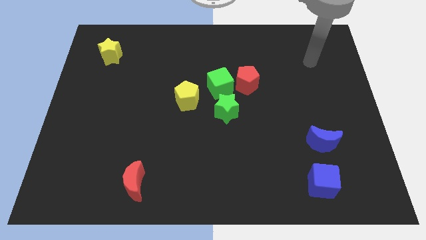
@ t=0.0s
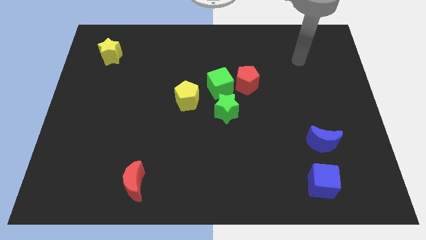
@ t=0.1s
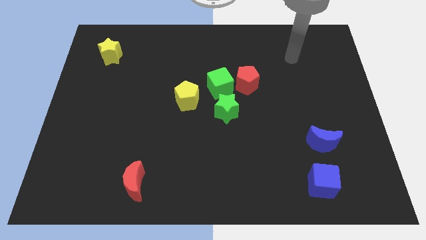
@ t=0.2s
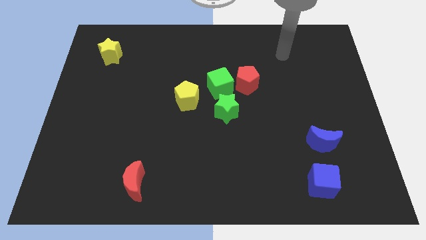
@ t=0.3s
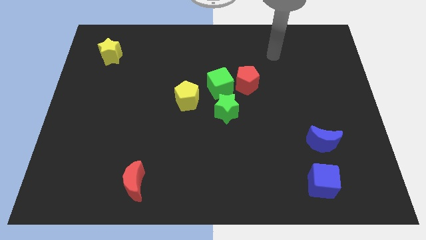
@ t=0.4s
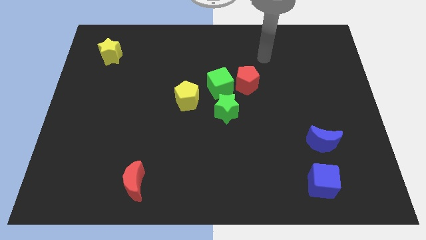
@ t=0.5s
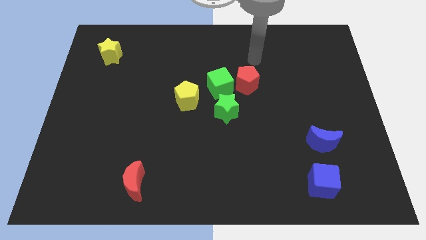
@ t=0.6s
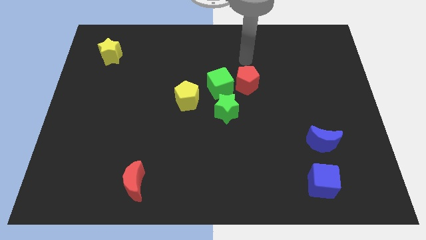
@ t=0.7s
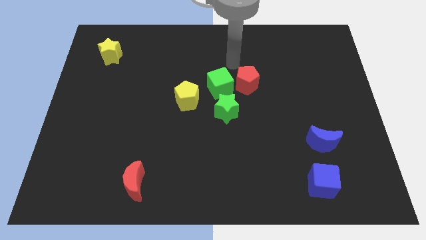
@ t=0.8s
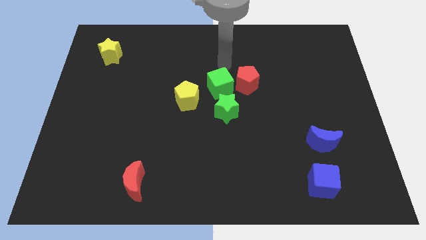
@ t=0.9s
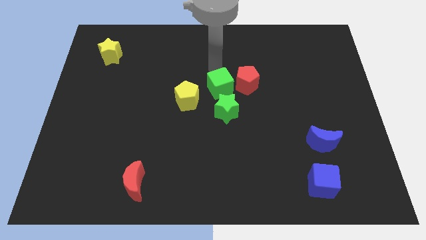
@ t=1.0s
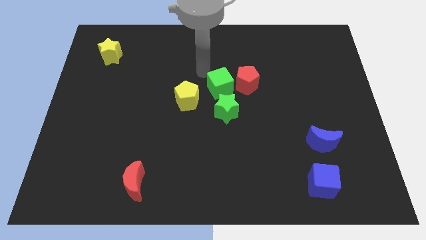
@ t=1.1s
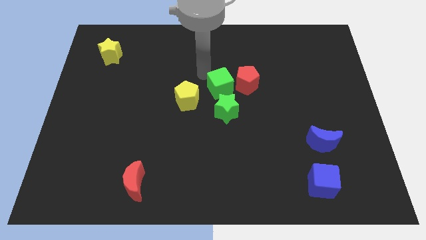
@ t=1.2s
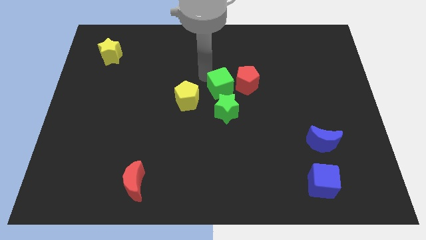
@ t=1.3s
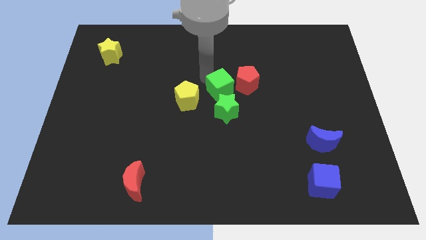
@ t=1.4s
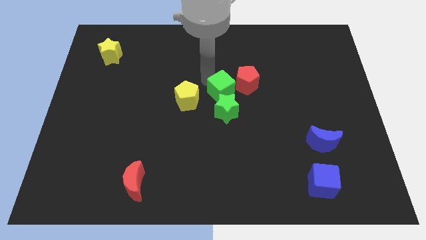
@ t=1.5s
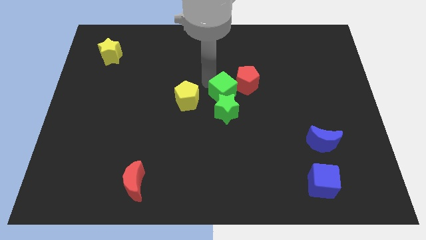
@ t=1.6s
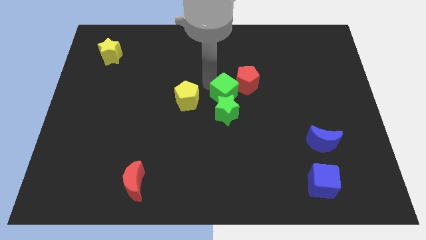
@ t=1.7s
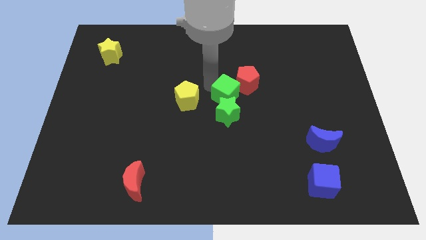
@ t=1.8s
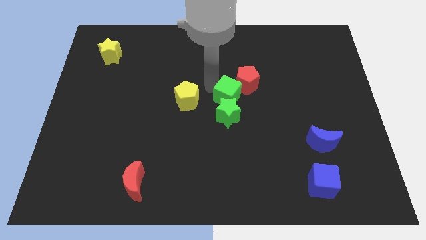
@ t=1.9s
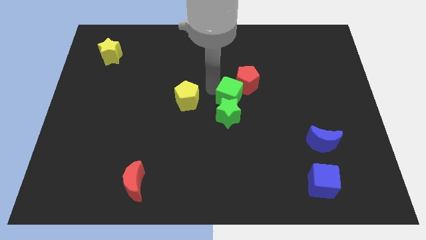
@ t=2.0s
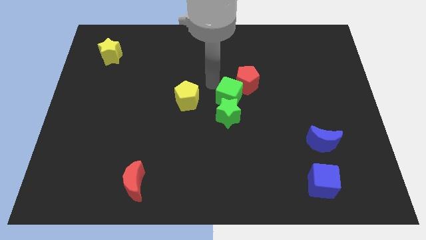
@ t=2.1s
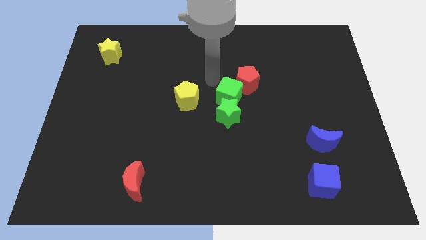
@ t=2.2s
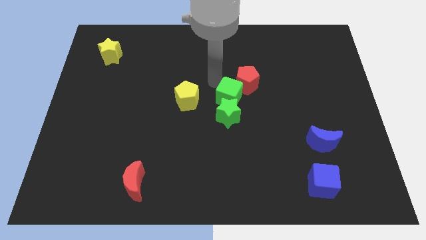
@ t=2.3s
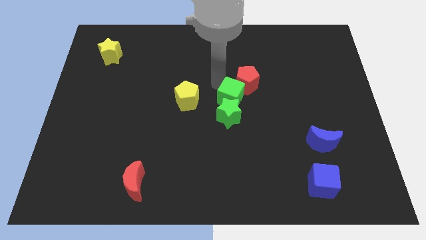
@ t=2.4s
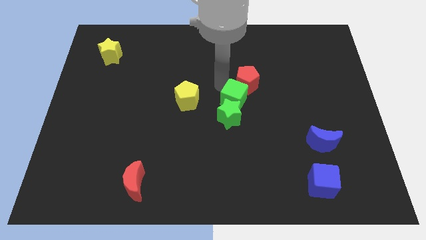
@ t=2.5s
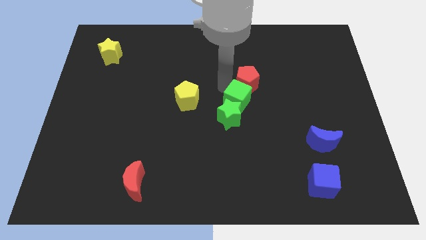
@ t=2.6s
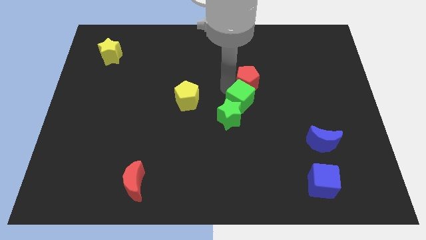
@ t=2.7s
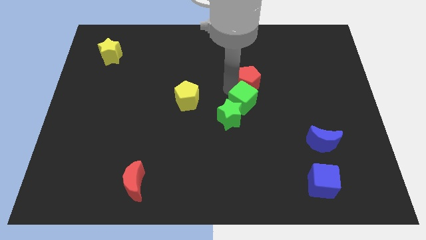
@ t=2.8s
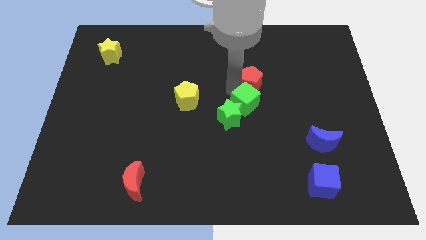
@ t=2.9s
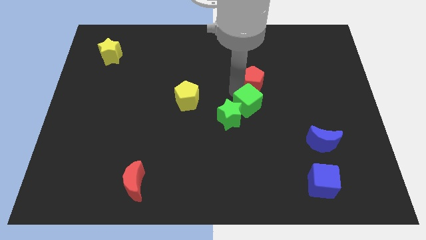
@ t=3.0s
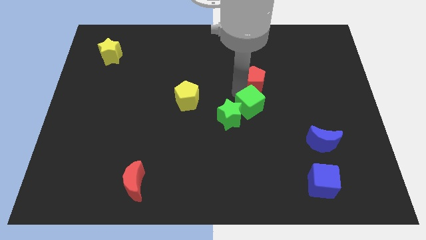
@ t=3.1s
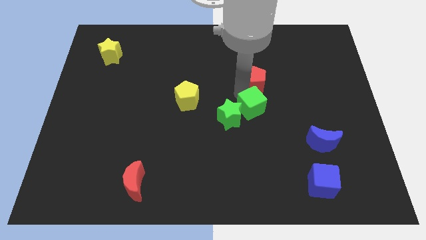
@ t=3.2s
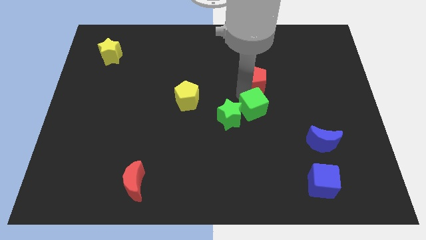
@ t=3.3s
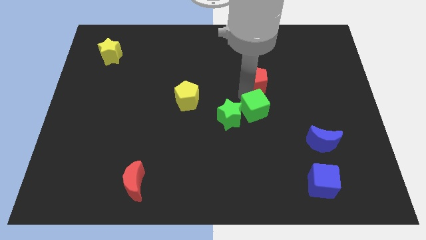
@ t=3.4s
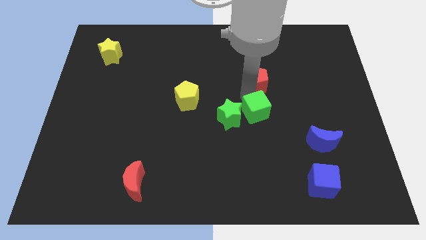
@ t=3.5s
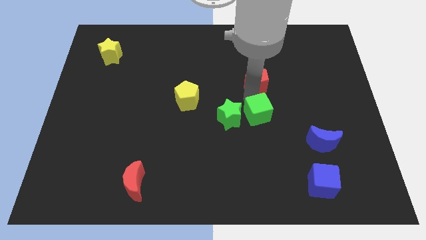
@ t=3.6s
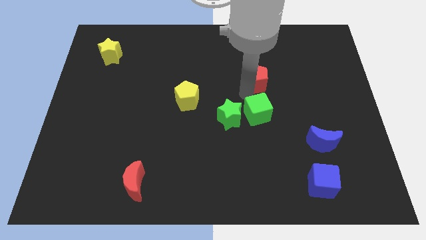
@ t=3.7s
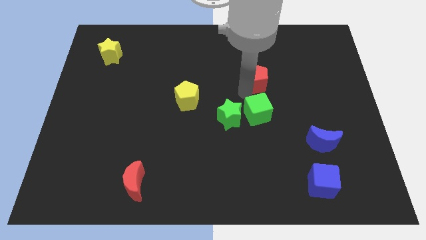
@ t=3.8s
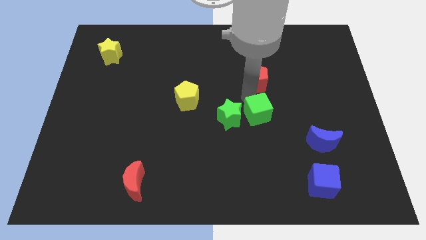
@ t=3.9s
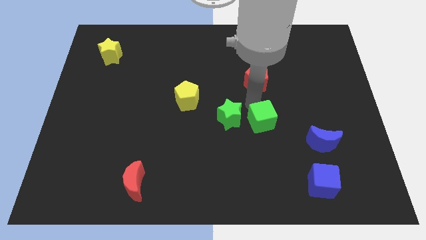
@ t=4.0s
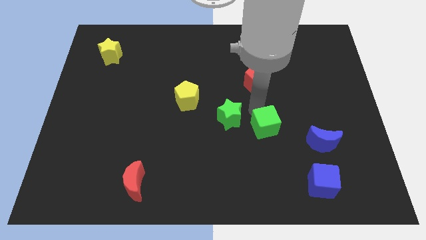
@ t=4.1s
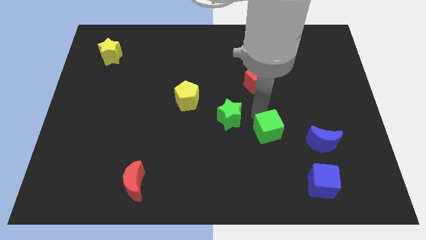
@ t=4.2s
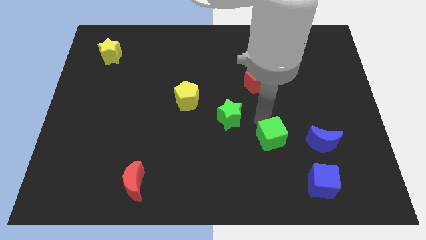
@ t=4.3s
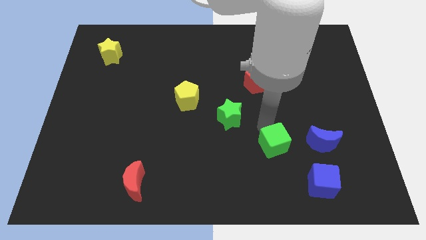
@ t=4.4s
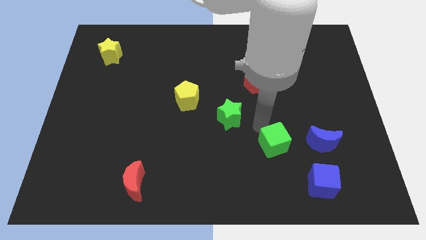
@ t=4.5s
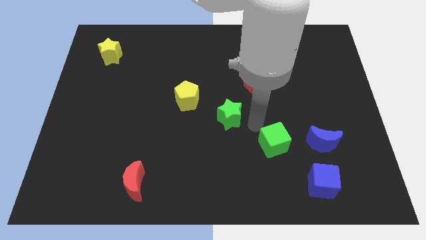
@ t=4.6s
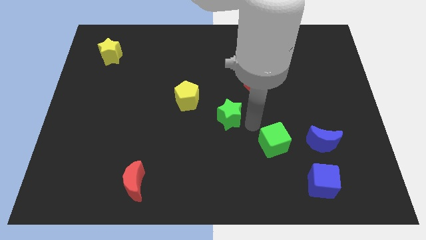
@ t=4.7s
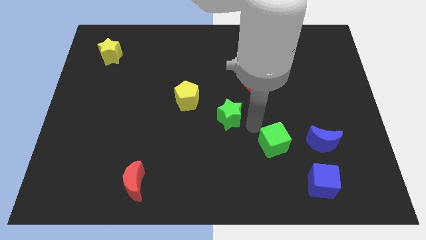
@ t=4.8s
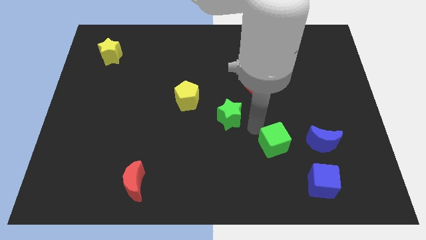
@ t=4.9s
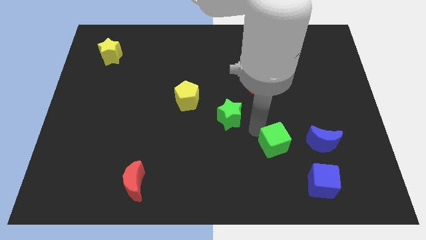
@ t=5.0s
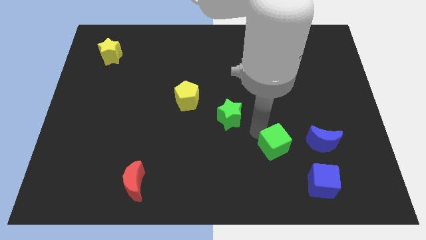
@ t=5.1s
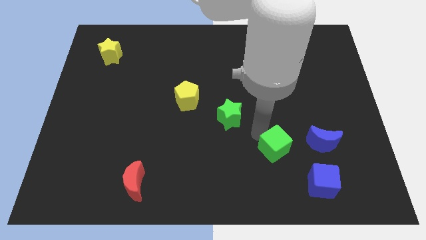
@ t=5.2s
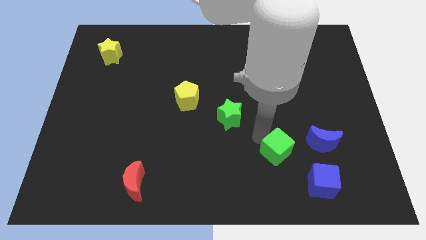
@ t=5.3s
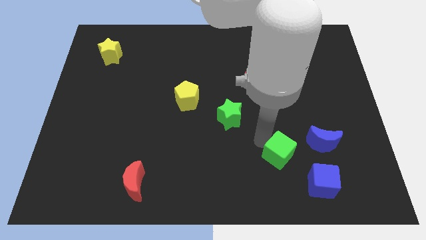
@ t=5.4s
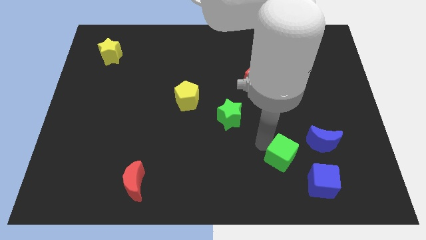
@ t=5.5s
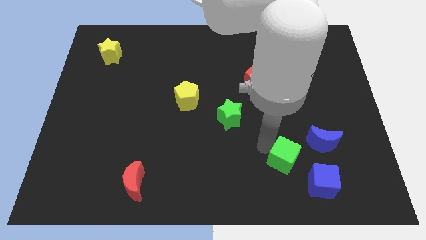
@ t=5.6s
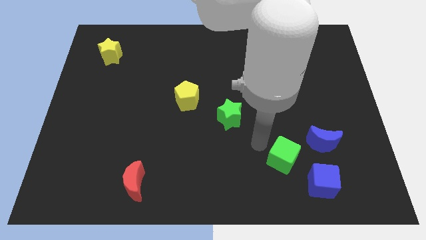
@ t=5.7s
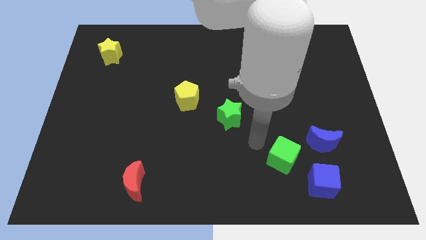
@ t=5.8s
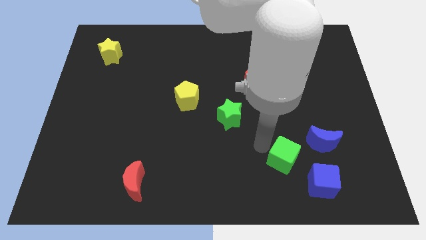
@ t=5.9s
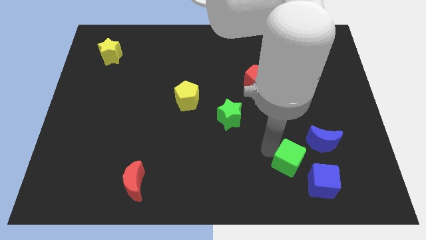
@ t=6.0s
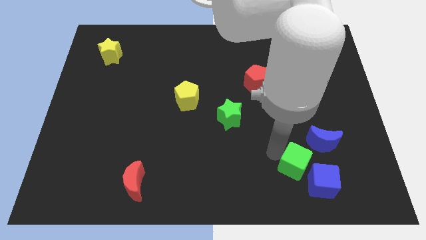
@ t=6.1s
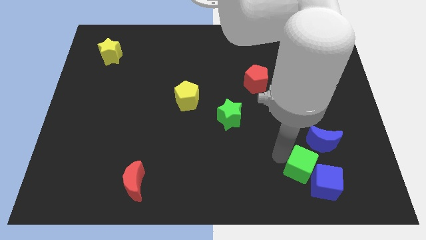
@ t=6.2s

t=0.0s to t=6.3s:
slide the green cube close to the blue cube
